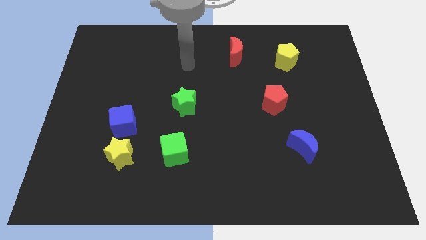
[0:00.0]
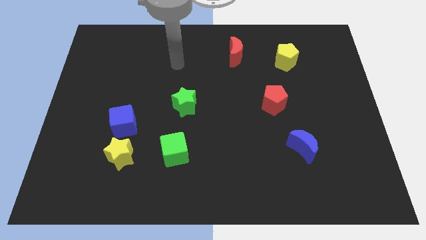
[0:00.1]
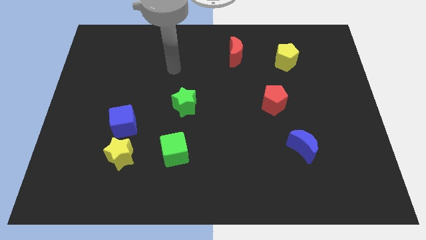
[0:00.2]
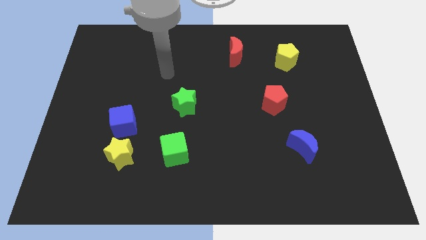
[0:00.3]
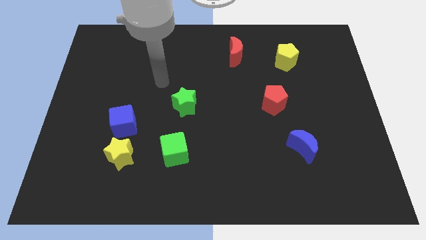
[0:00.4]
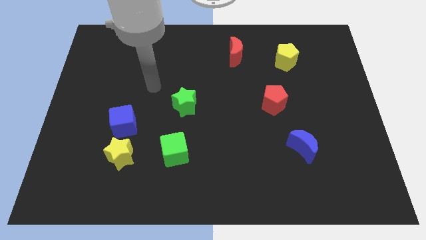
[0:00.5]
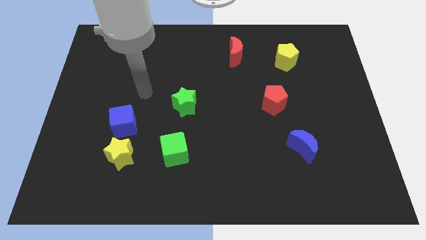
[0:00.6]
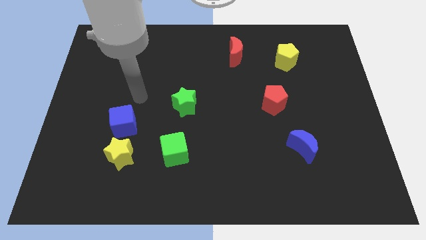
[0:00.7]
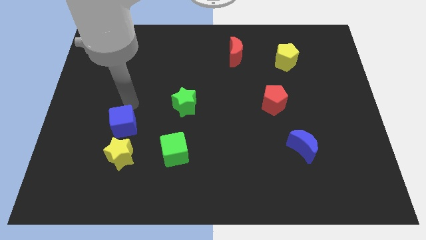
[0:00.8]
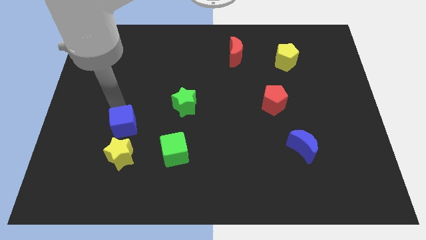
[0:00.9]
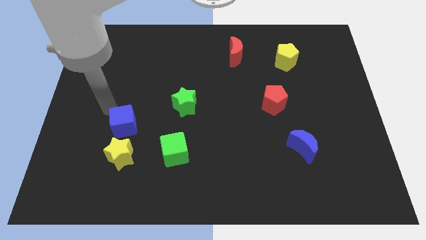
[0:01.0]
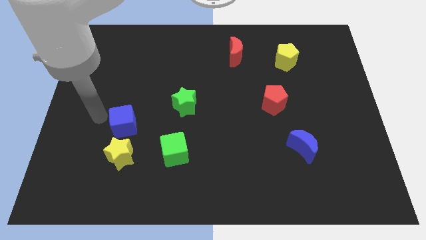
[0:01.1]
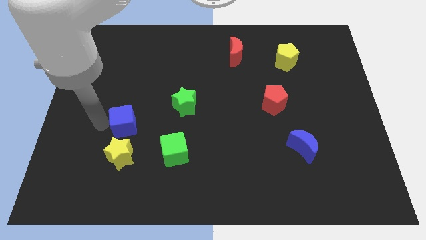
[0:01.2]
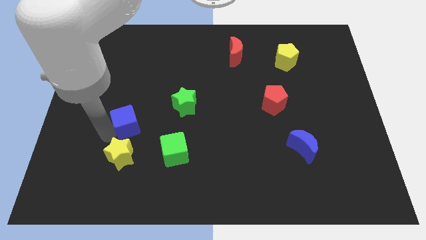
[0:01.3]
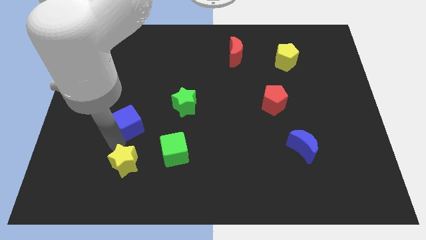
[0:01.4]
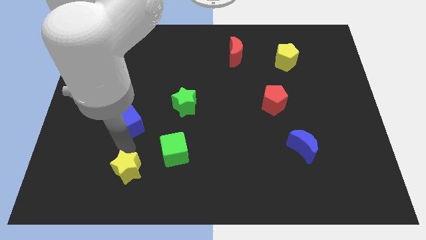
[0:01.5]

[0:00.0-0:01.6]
separate the blue cube from the yellow star

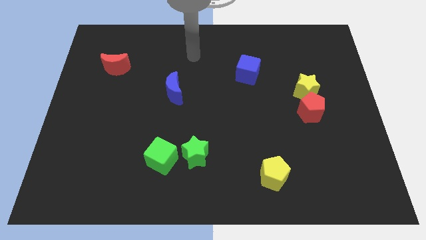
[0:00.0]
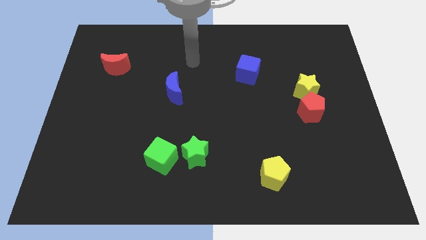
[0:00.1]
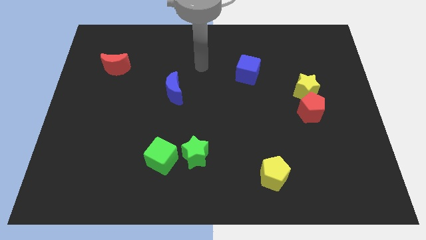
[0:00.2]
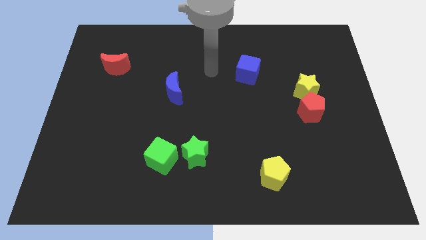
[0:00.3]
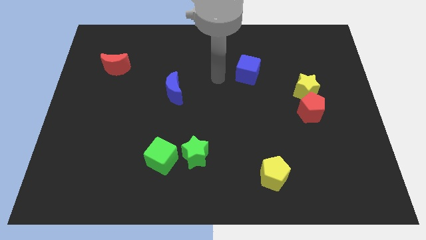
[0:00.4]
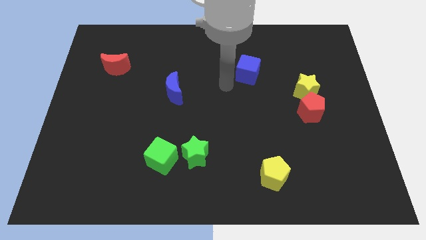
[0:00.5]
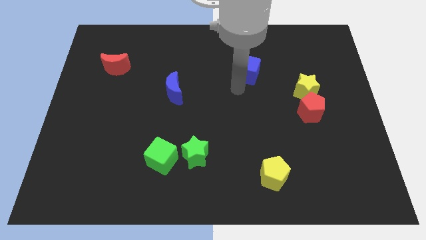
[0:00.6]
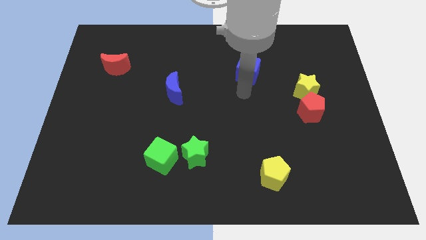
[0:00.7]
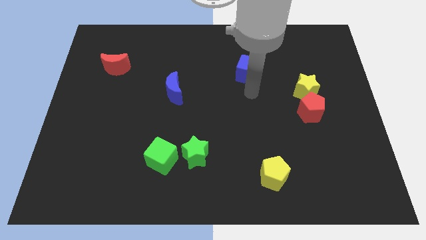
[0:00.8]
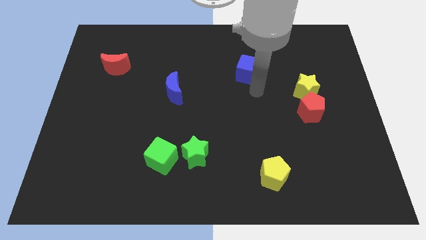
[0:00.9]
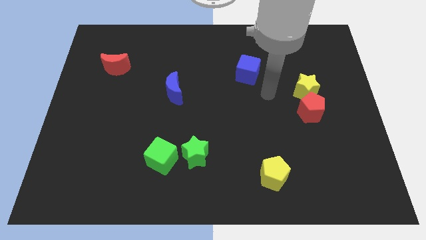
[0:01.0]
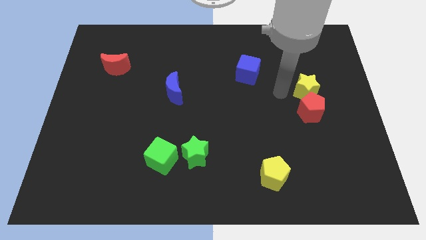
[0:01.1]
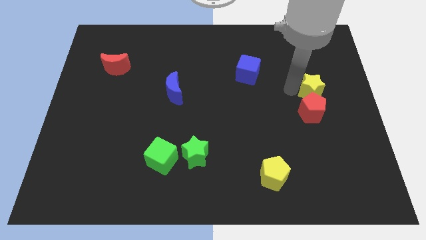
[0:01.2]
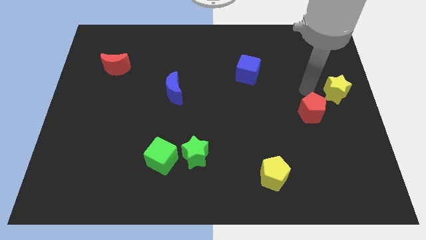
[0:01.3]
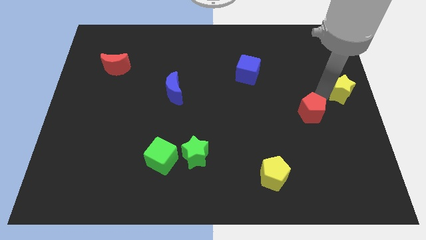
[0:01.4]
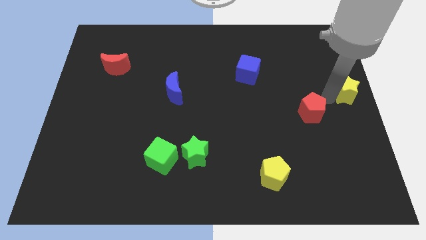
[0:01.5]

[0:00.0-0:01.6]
move the red pentagon away from the yellow star

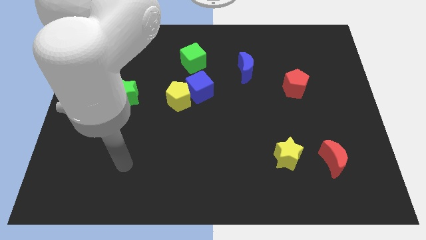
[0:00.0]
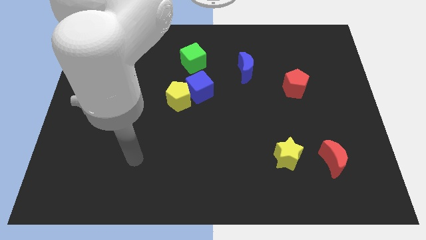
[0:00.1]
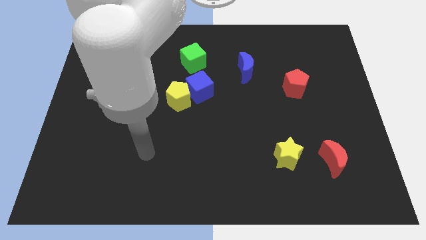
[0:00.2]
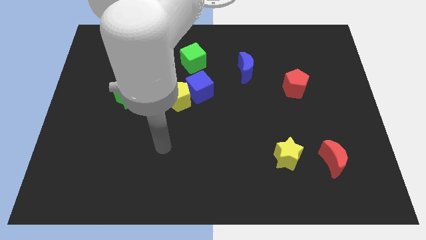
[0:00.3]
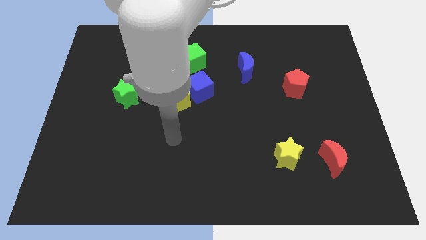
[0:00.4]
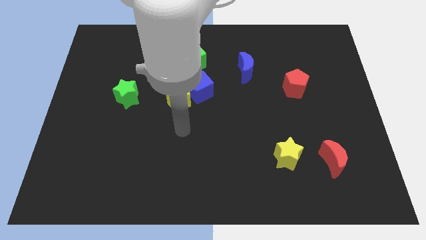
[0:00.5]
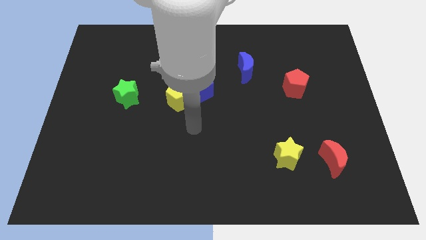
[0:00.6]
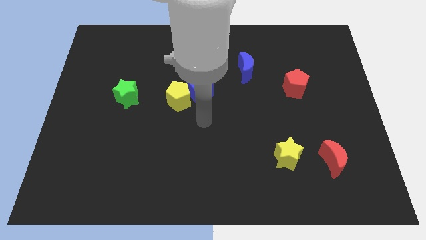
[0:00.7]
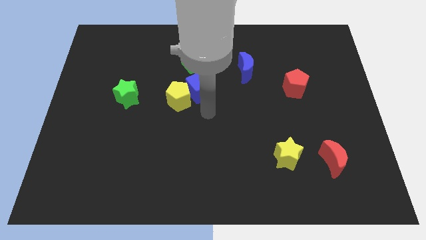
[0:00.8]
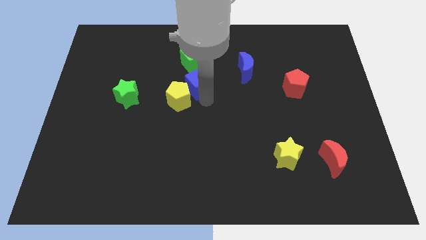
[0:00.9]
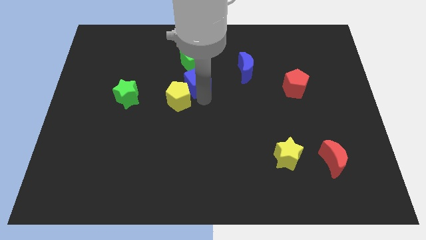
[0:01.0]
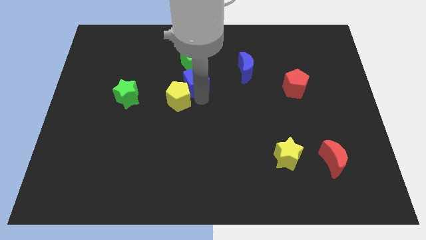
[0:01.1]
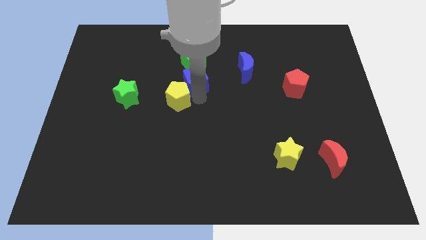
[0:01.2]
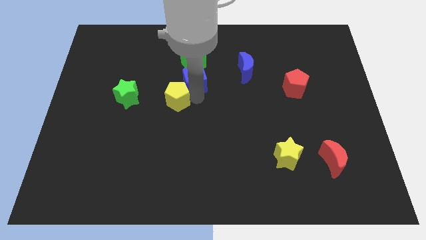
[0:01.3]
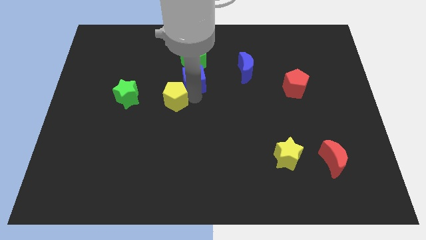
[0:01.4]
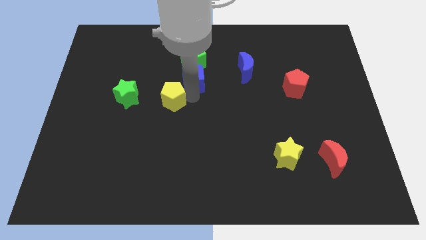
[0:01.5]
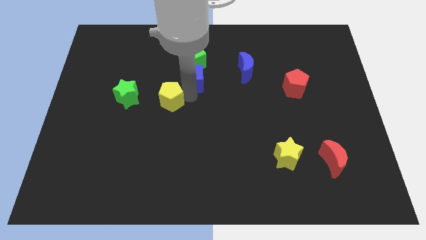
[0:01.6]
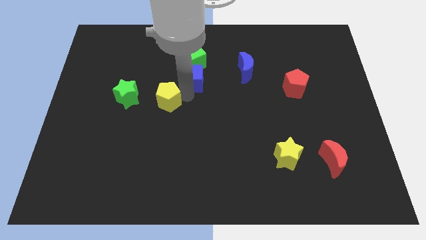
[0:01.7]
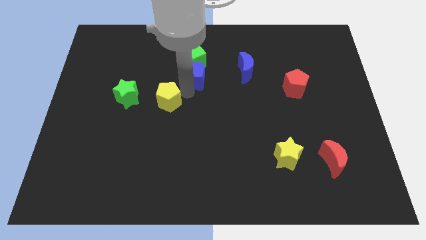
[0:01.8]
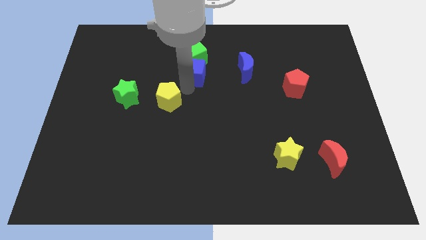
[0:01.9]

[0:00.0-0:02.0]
pull the yellow pentagon apart from the blue cube

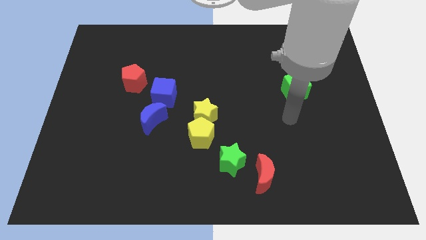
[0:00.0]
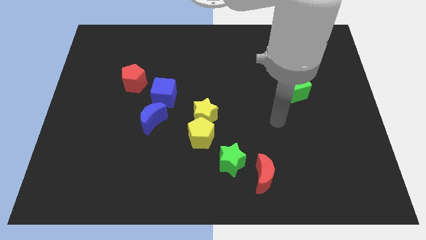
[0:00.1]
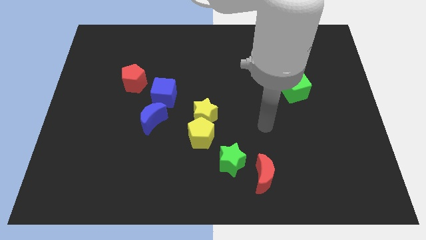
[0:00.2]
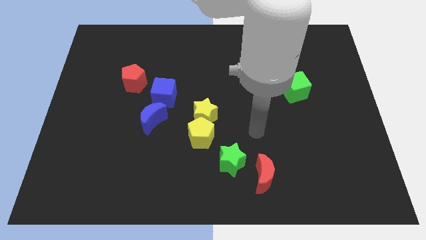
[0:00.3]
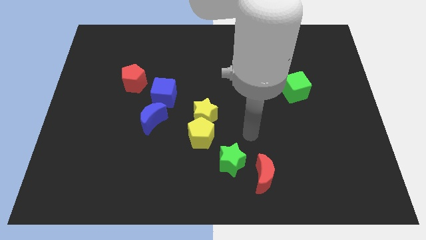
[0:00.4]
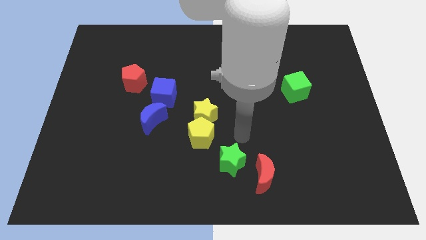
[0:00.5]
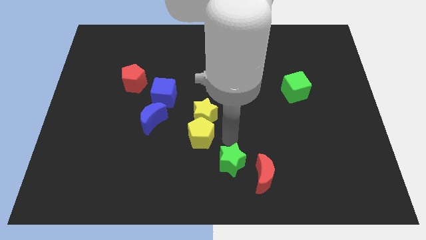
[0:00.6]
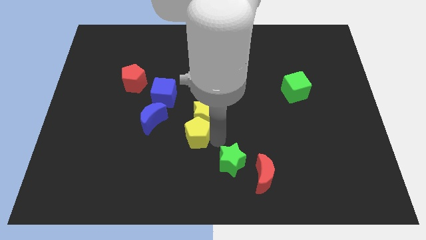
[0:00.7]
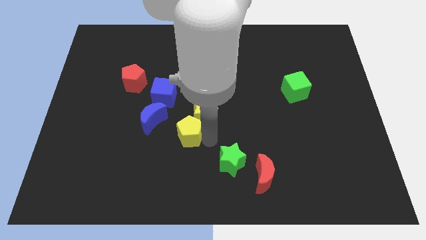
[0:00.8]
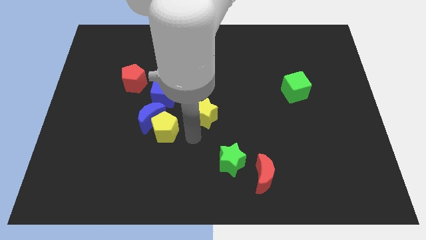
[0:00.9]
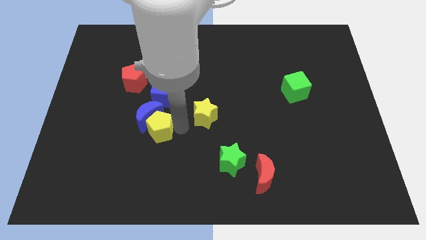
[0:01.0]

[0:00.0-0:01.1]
move the yellow star away from the yellow pentagon

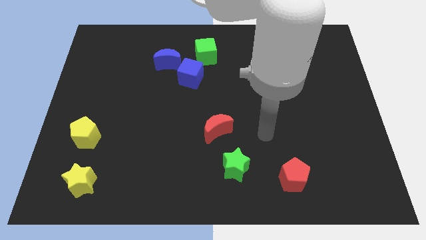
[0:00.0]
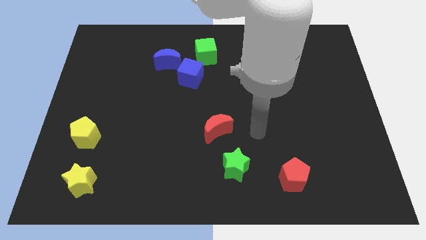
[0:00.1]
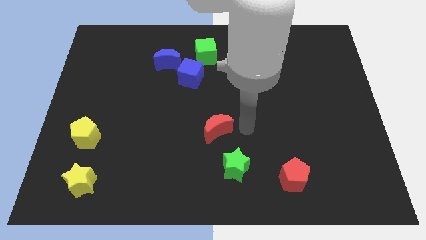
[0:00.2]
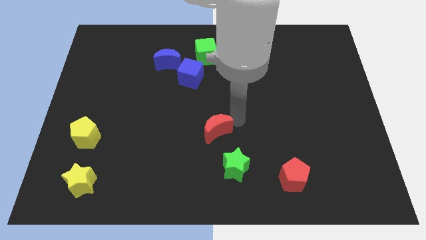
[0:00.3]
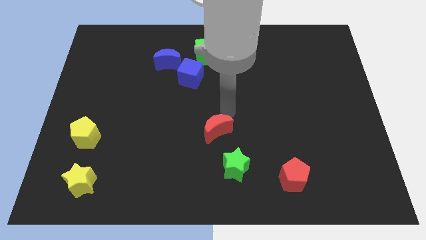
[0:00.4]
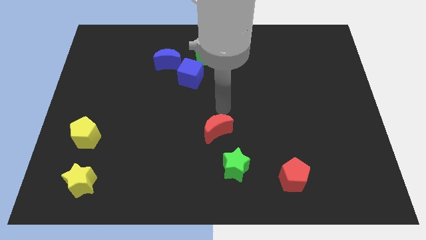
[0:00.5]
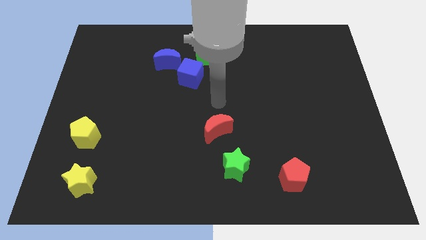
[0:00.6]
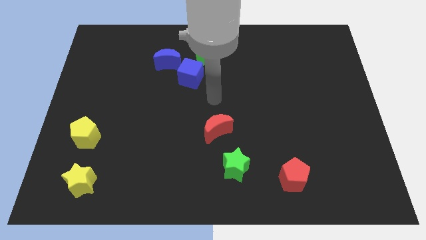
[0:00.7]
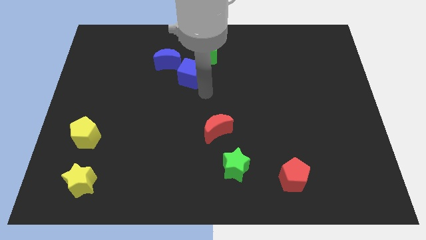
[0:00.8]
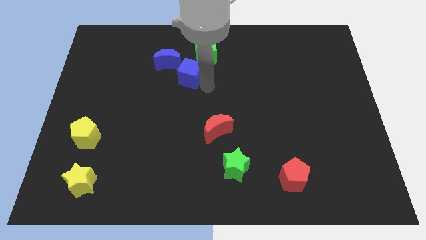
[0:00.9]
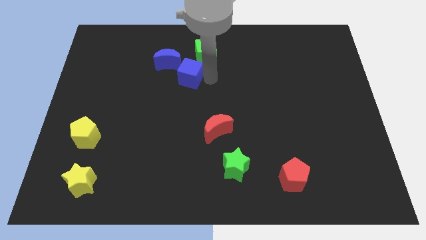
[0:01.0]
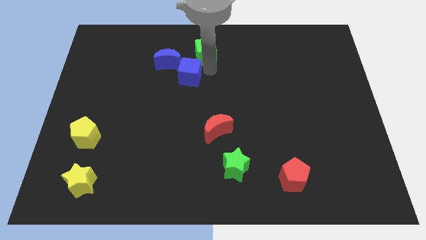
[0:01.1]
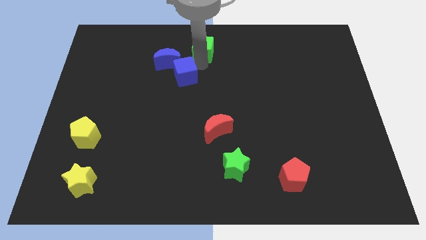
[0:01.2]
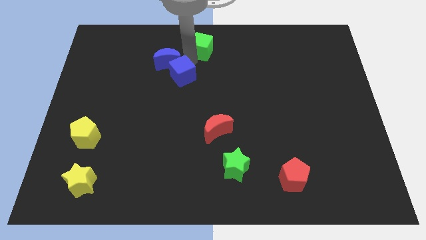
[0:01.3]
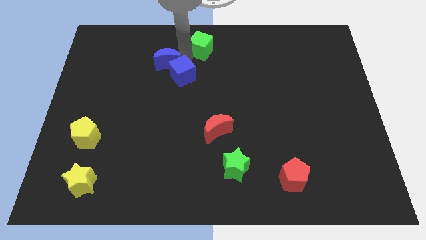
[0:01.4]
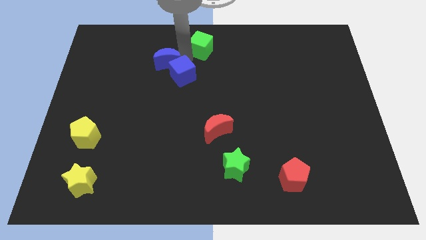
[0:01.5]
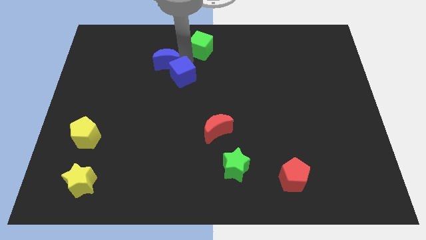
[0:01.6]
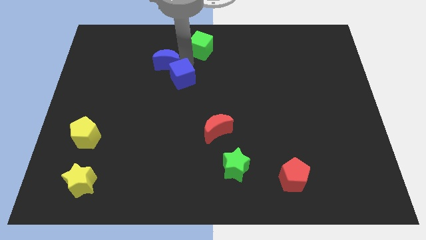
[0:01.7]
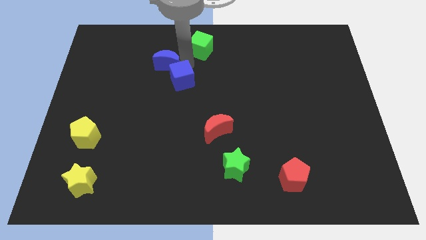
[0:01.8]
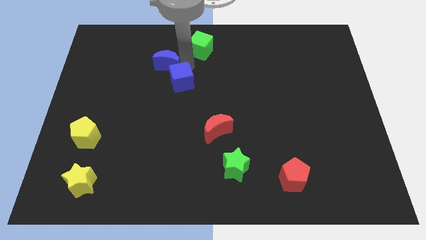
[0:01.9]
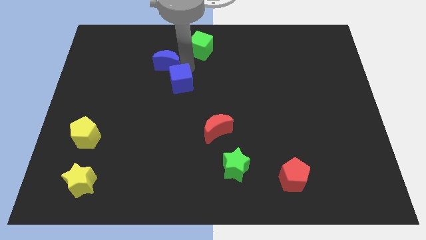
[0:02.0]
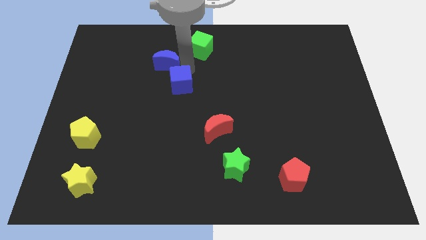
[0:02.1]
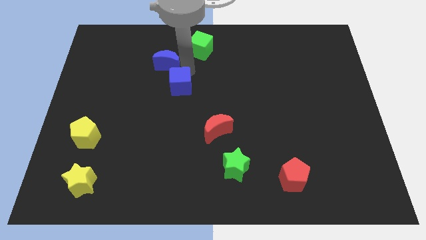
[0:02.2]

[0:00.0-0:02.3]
move the blue cube away from the blue moon and green cube

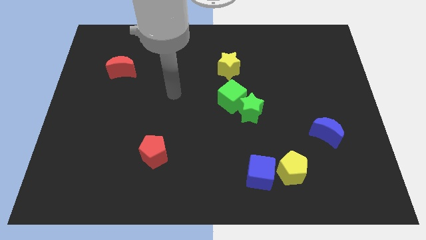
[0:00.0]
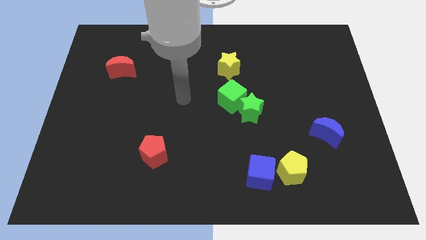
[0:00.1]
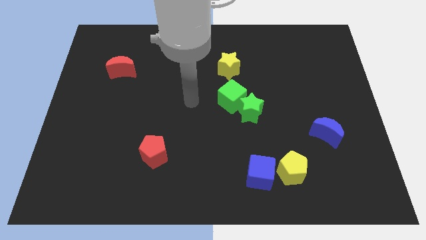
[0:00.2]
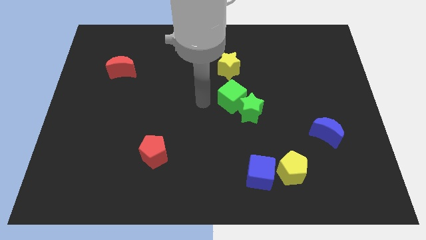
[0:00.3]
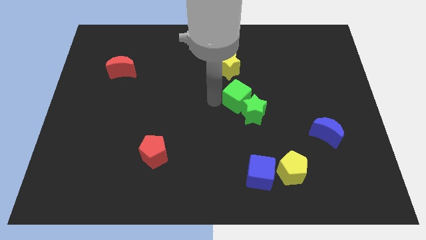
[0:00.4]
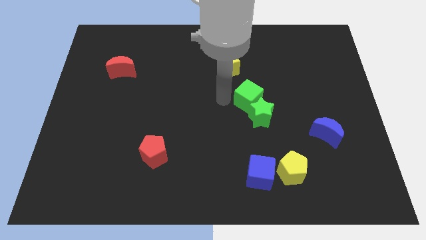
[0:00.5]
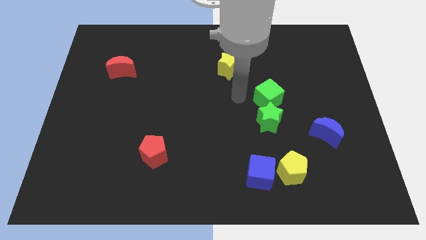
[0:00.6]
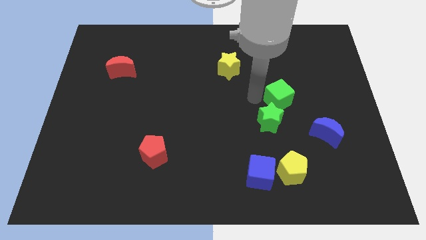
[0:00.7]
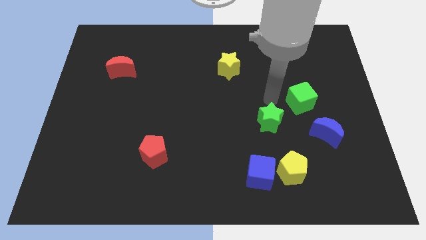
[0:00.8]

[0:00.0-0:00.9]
move the green star away from the green cube
